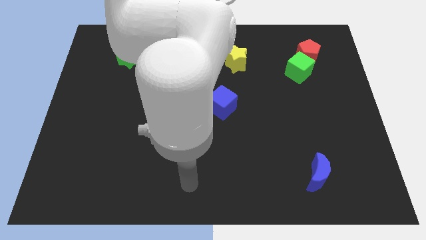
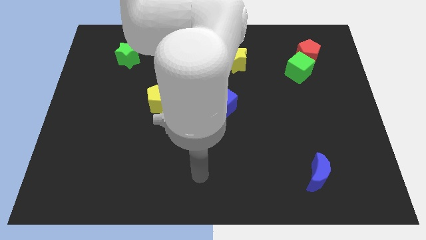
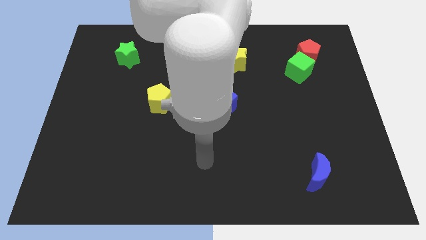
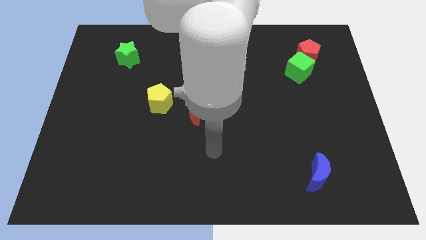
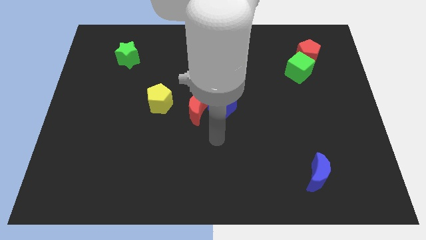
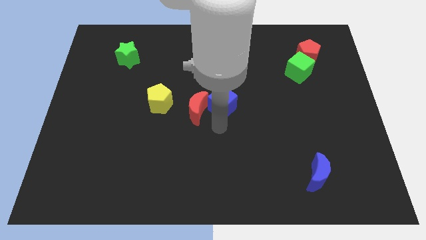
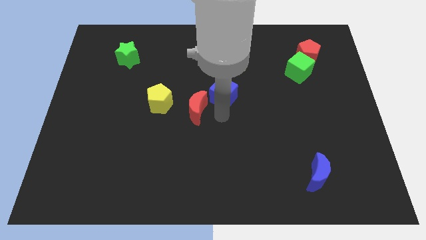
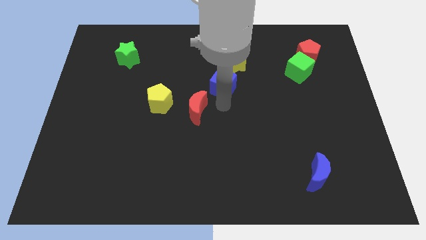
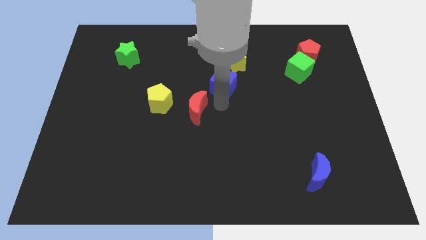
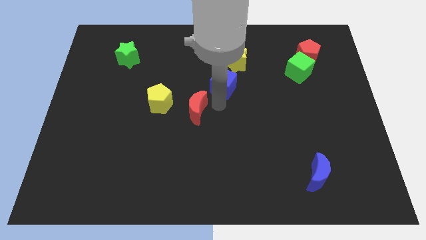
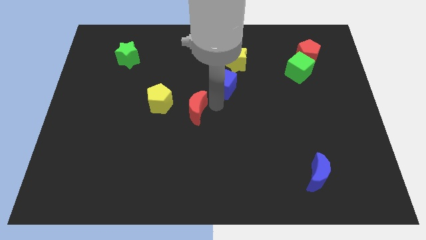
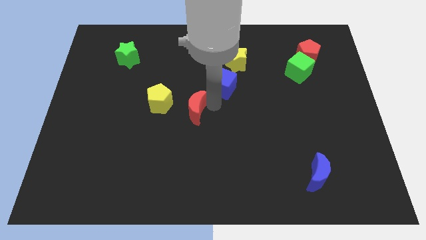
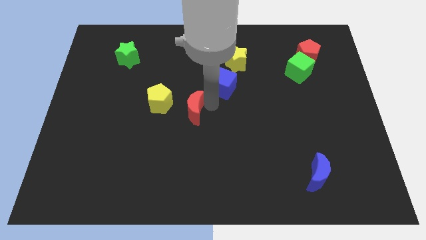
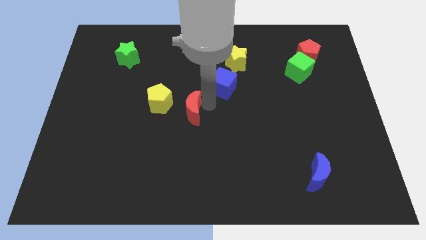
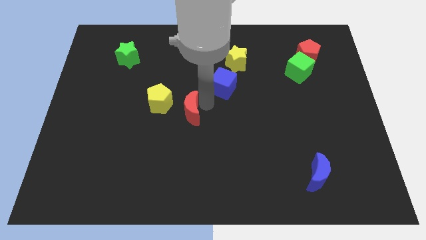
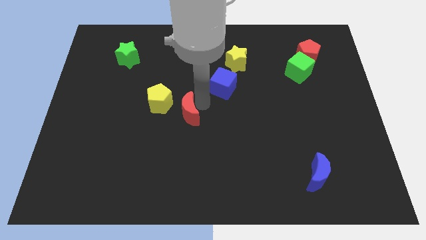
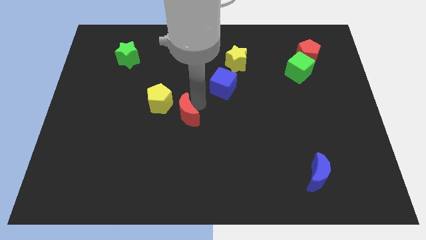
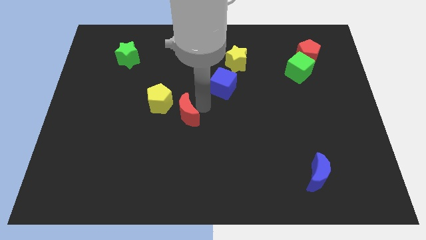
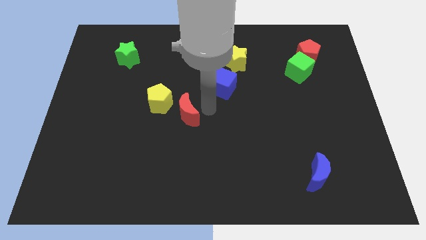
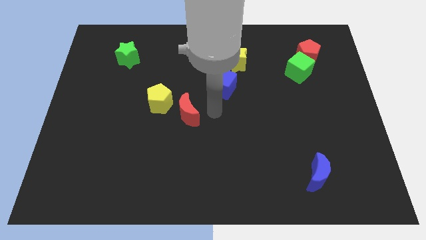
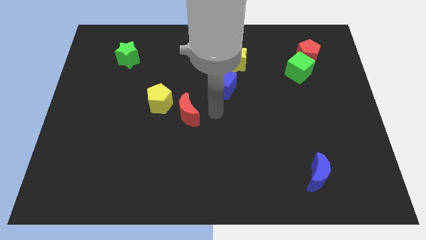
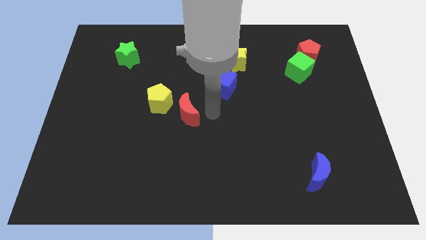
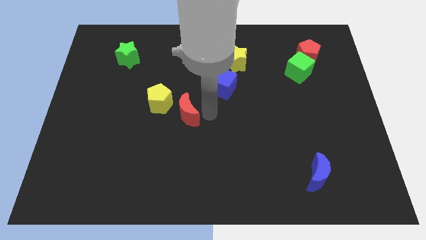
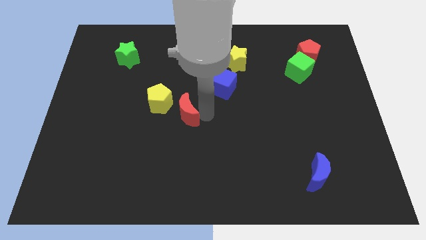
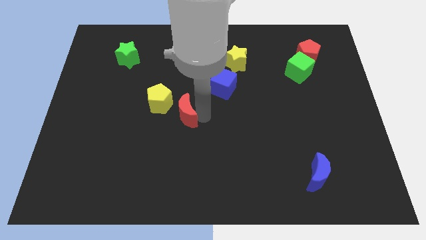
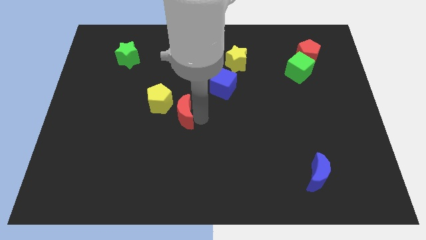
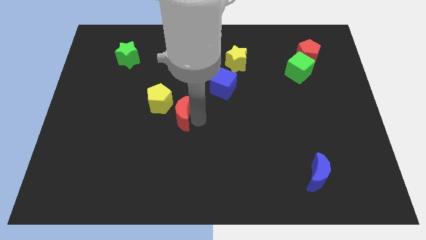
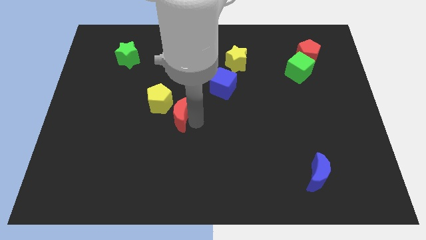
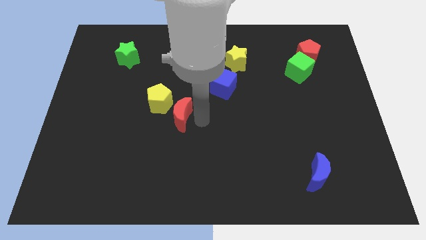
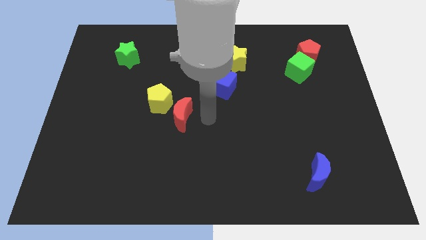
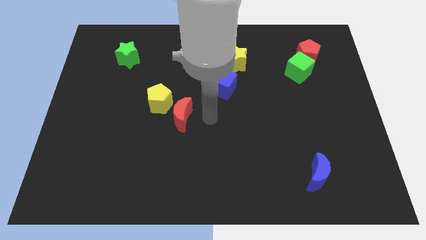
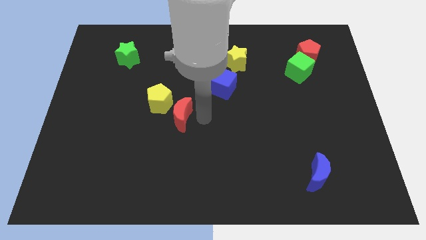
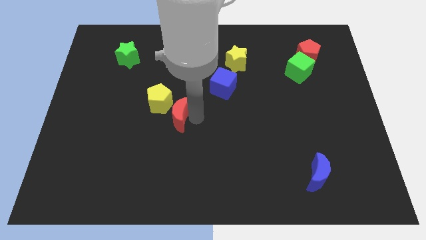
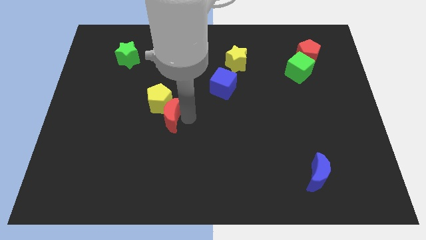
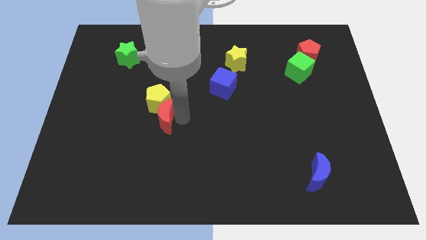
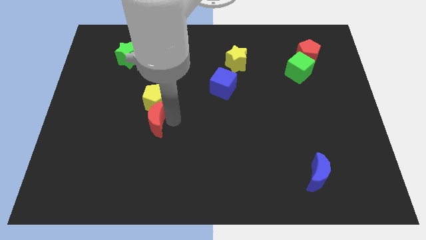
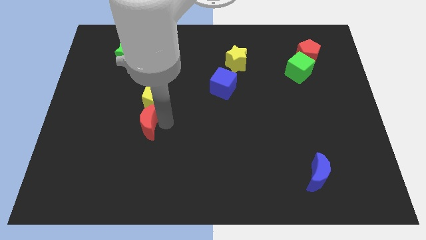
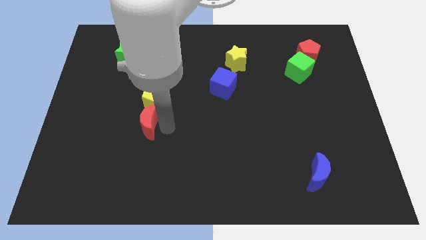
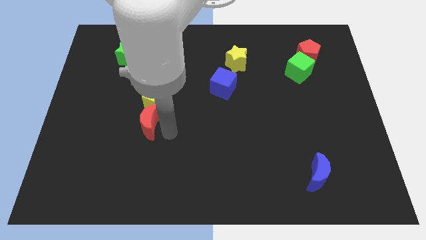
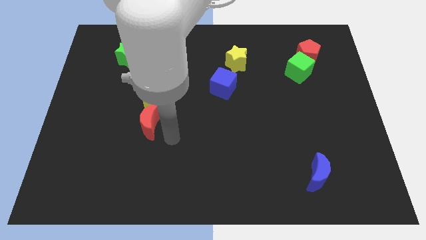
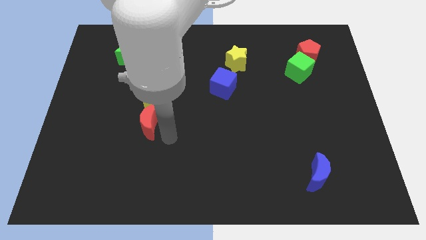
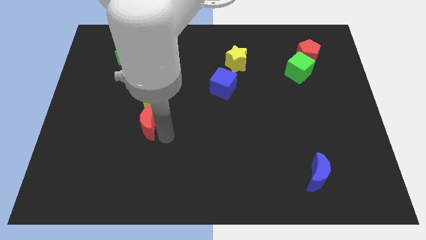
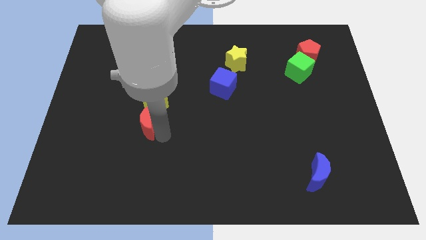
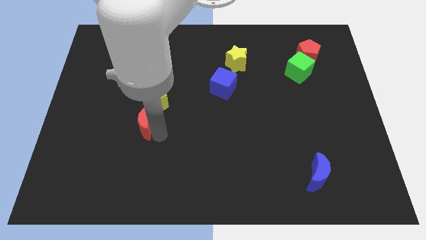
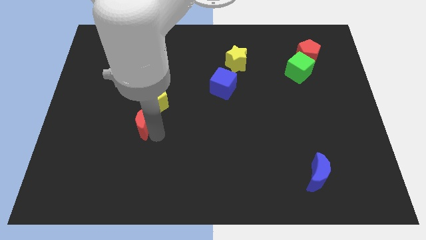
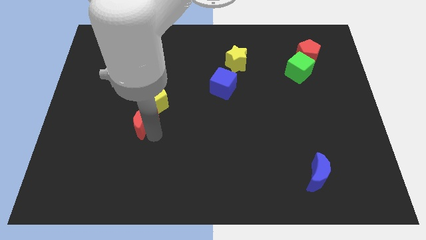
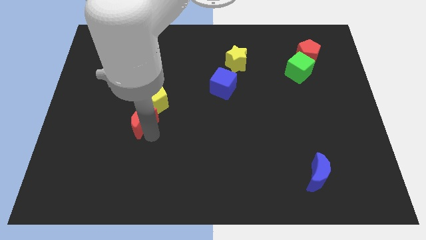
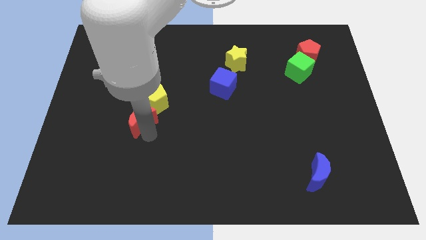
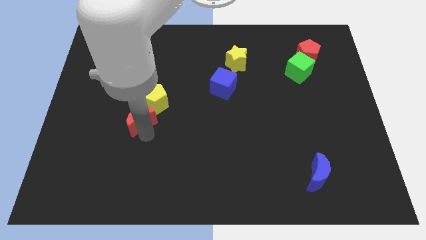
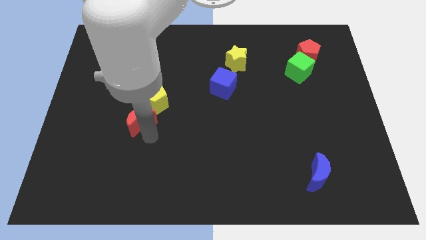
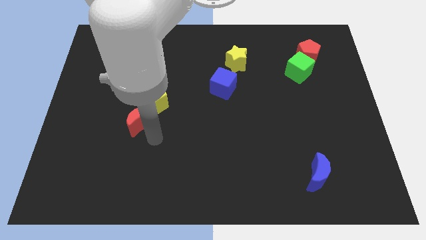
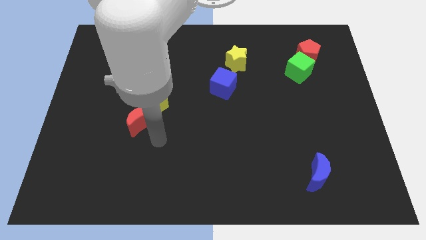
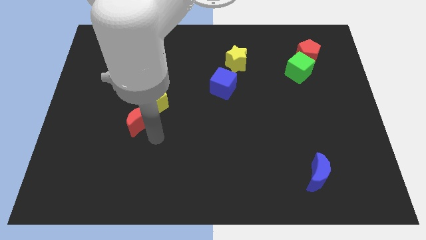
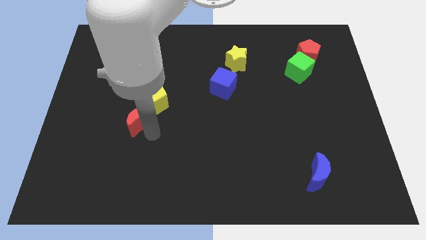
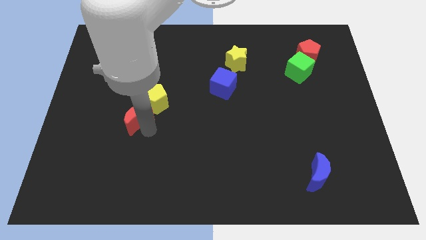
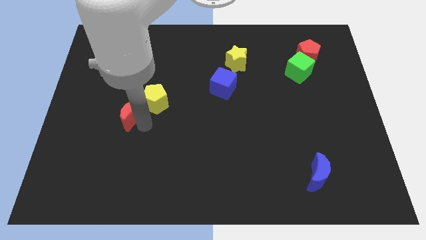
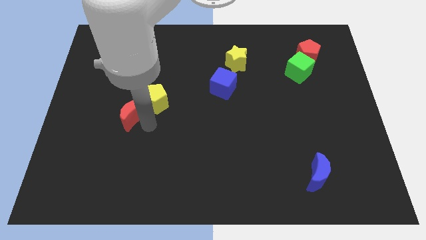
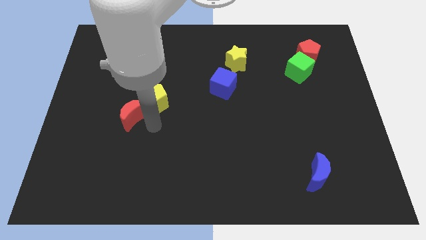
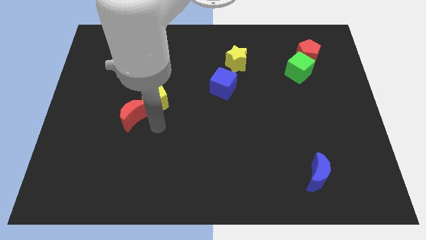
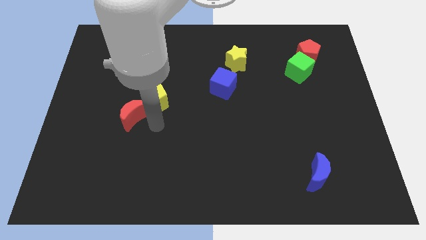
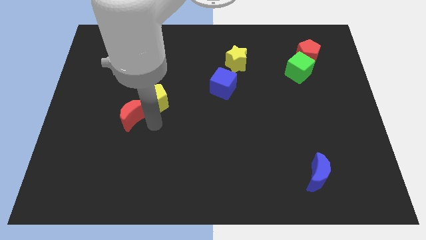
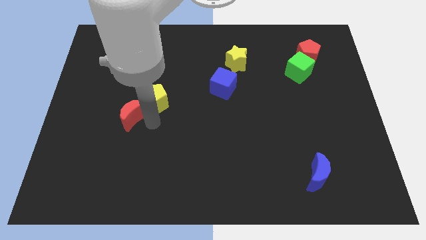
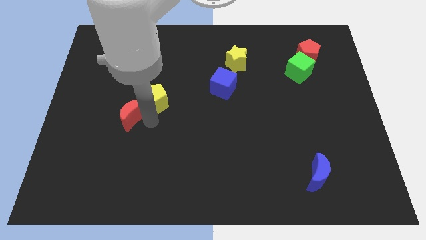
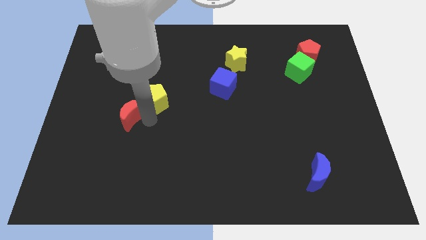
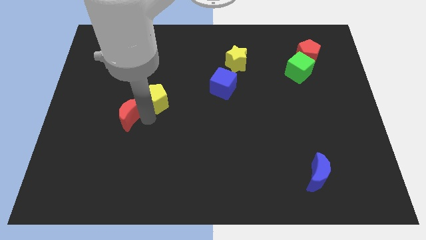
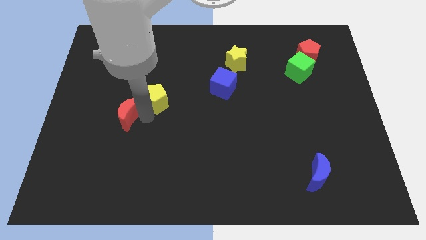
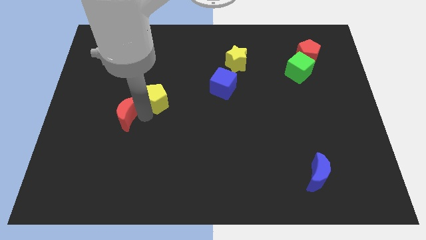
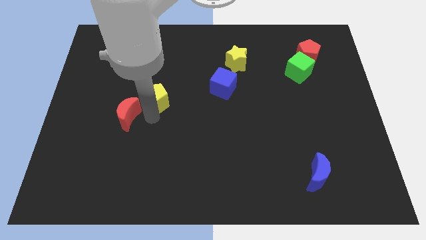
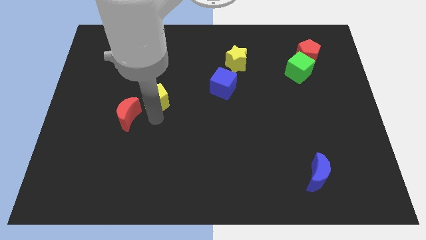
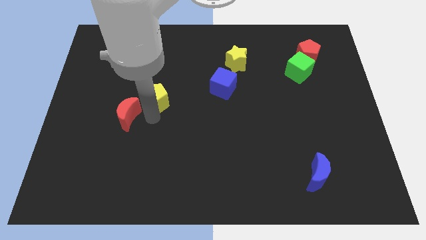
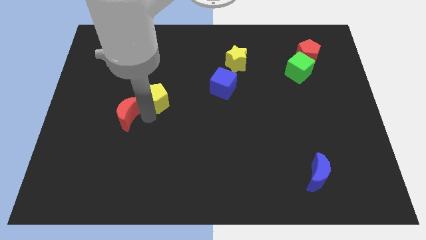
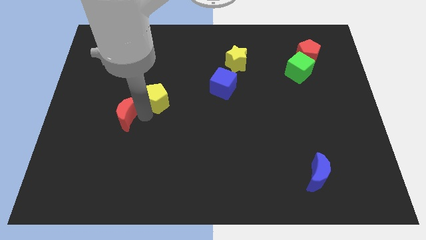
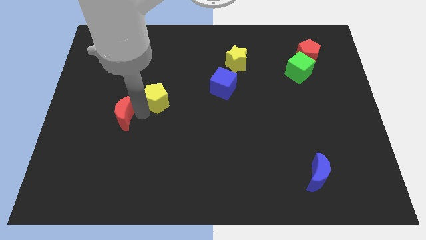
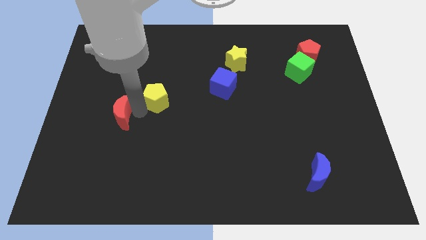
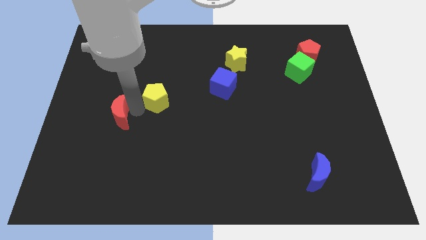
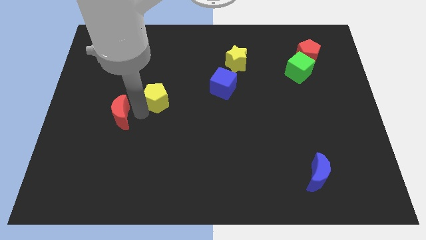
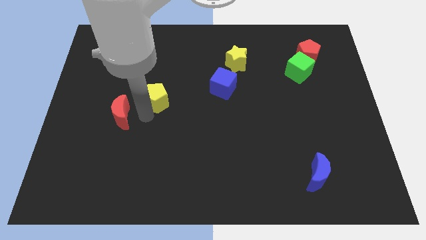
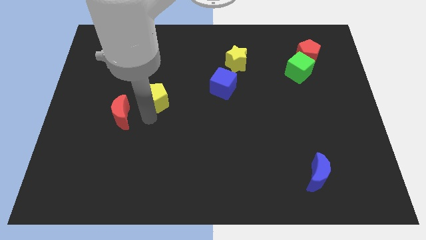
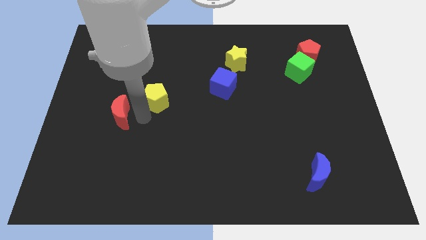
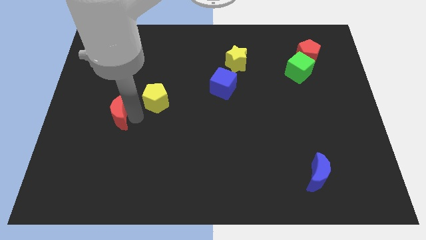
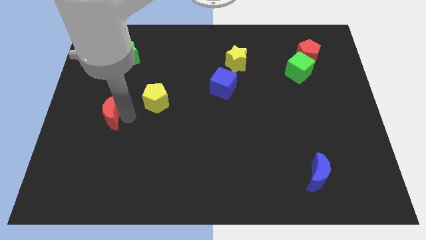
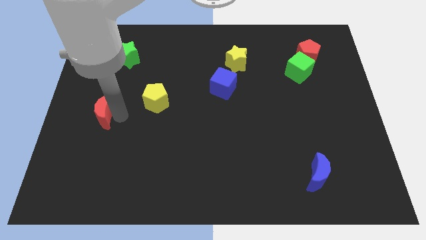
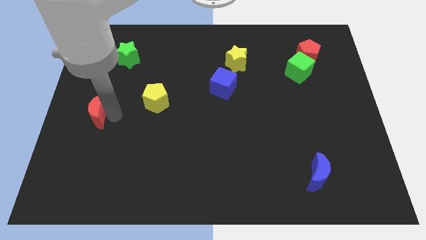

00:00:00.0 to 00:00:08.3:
slide the red moon to the left side of the board
